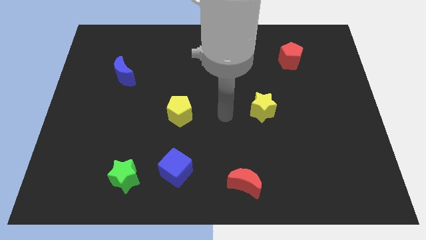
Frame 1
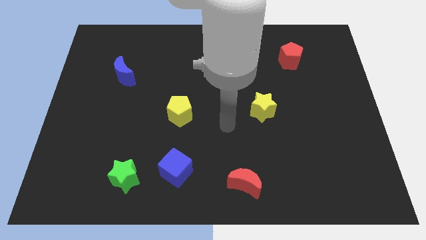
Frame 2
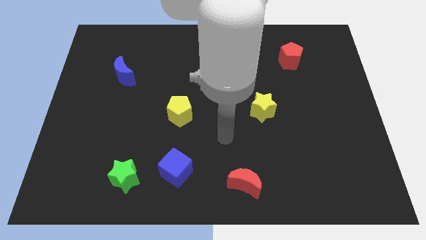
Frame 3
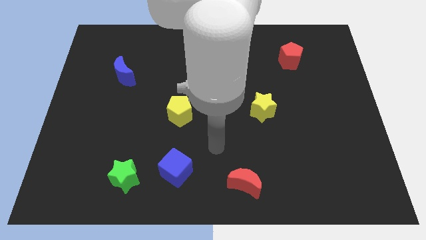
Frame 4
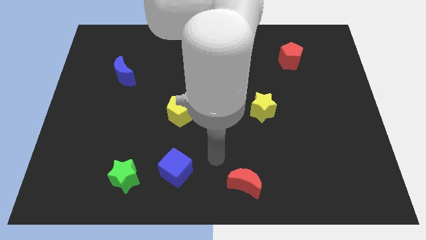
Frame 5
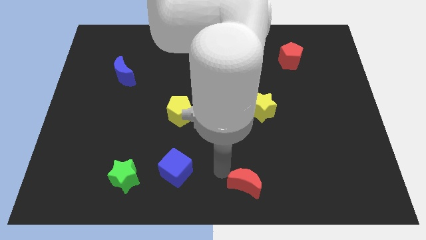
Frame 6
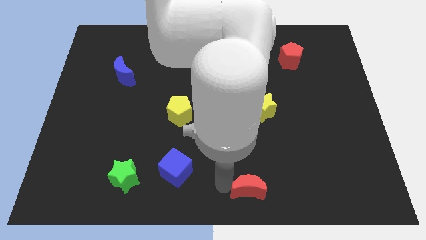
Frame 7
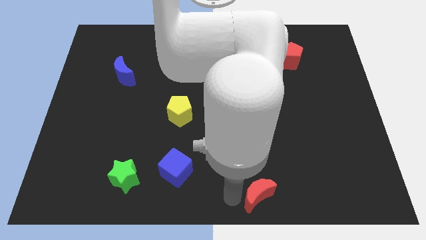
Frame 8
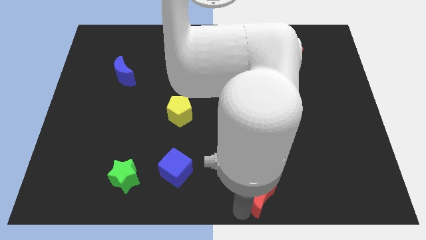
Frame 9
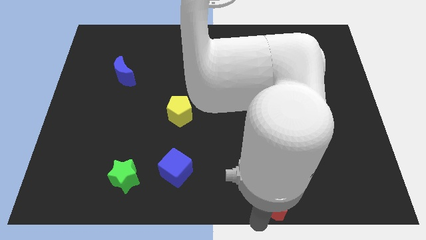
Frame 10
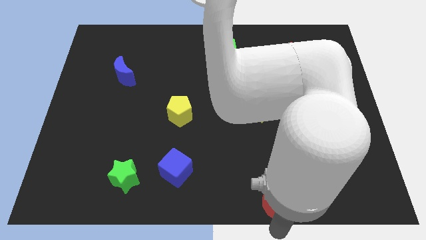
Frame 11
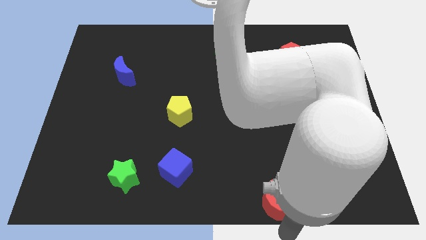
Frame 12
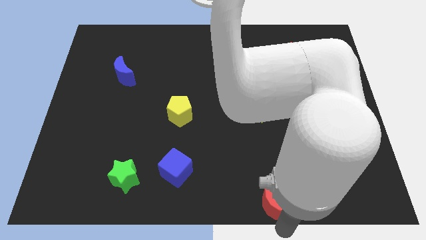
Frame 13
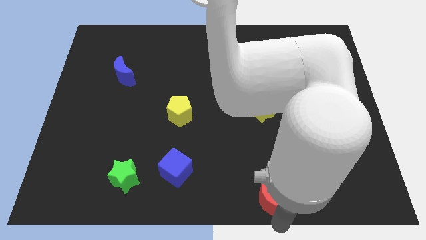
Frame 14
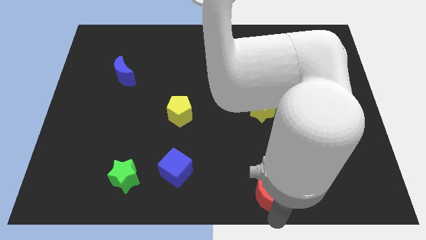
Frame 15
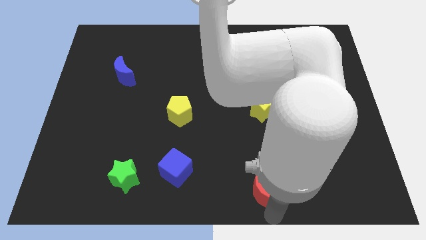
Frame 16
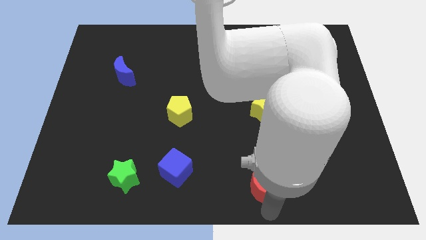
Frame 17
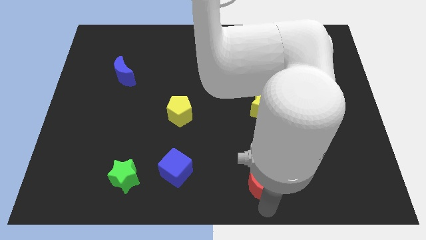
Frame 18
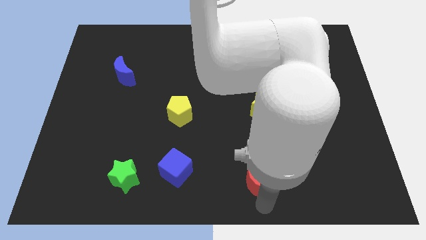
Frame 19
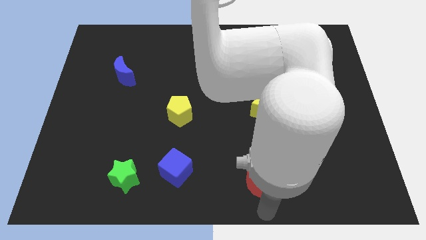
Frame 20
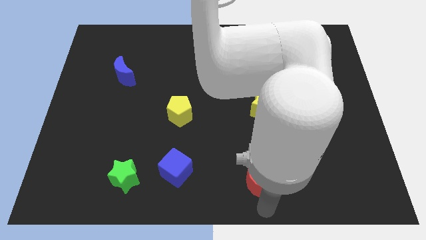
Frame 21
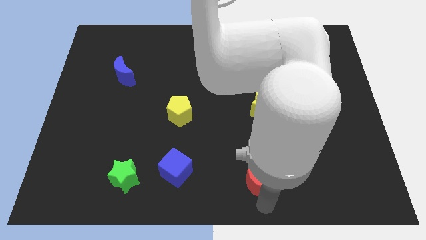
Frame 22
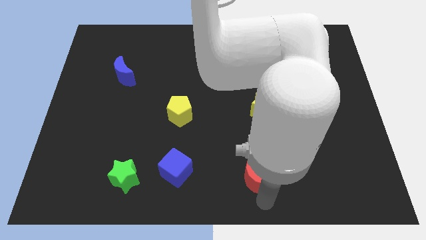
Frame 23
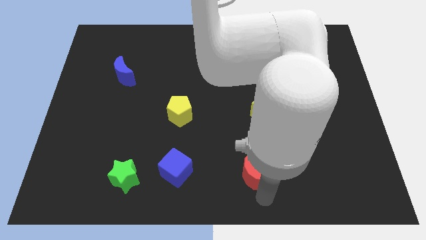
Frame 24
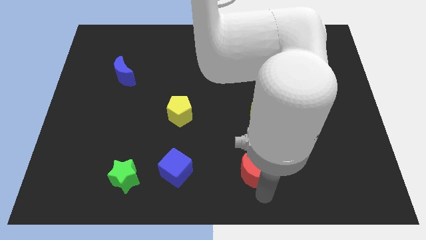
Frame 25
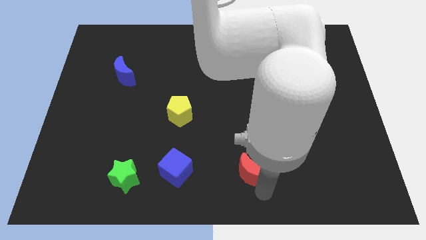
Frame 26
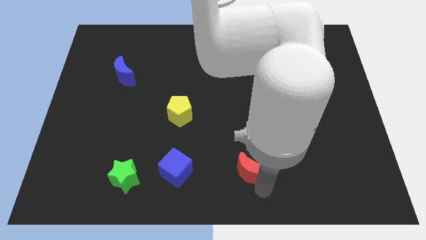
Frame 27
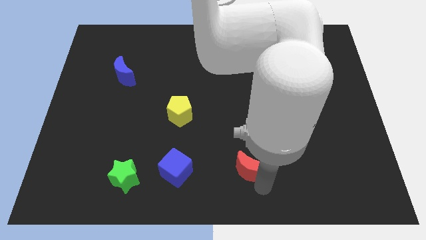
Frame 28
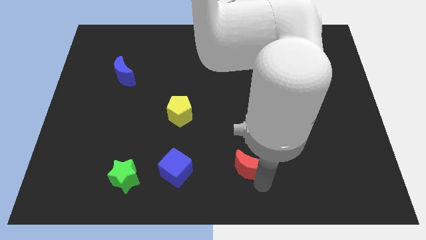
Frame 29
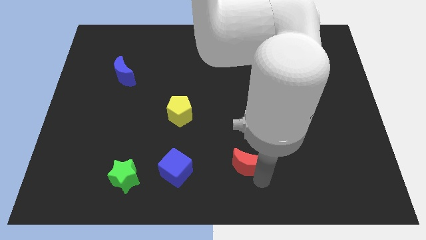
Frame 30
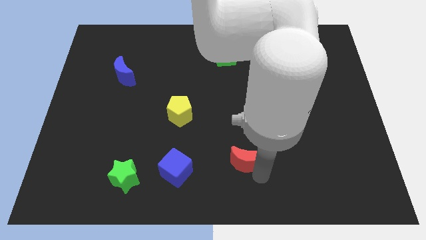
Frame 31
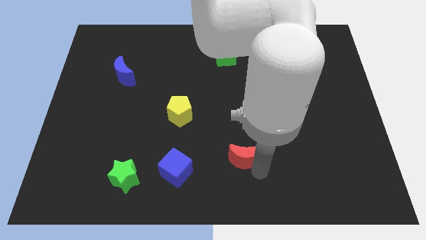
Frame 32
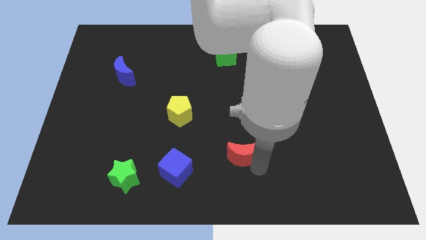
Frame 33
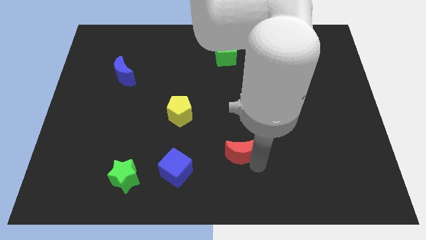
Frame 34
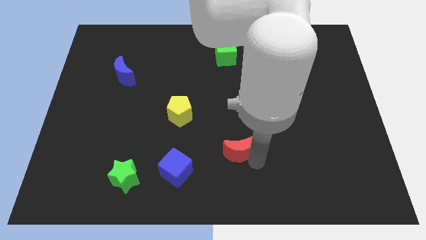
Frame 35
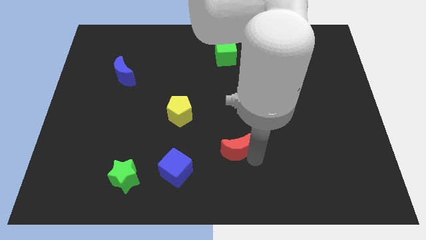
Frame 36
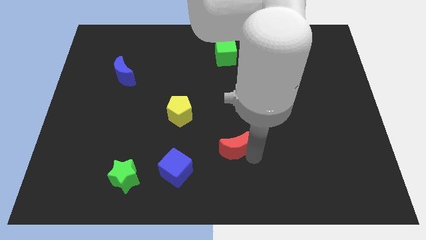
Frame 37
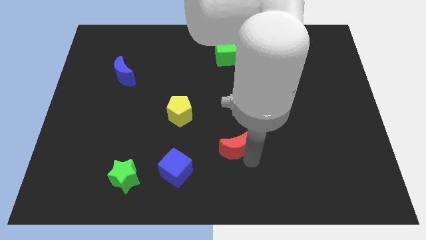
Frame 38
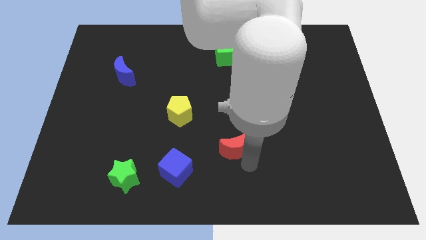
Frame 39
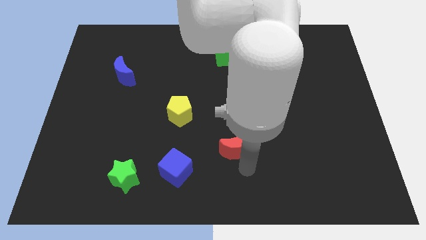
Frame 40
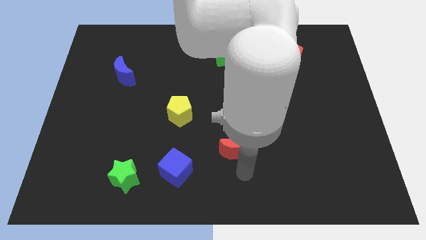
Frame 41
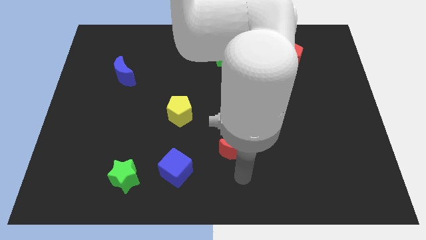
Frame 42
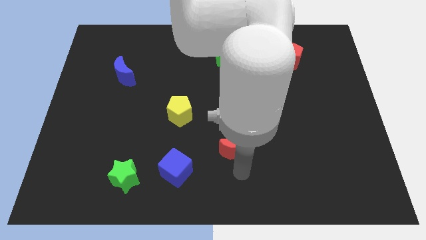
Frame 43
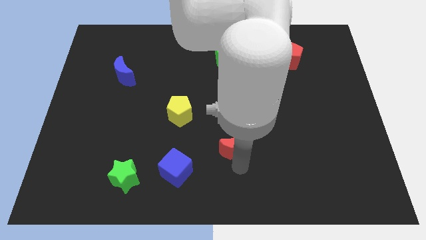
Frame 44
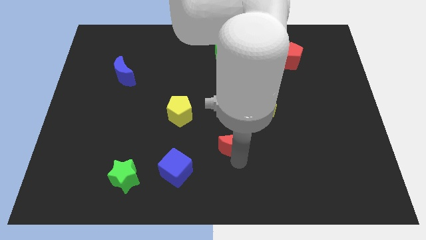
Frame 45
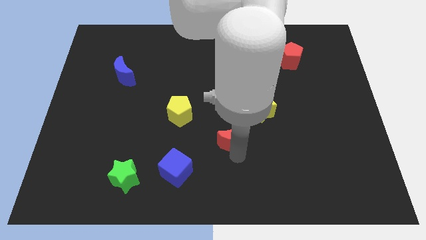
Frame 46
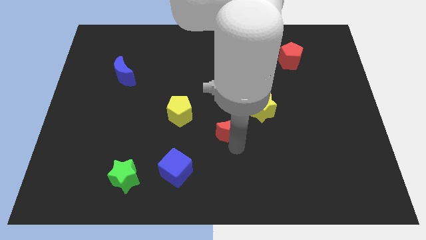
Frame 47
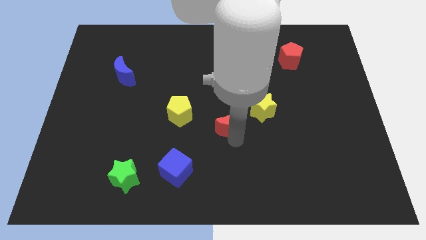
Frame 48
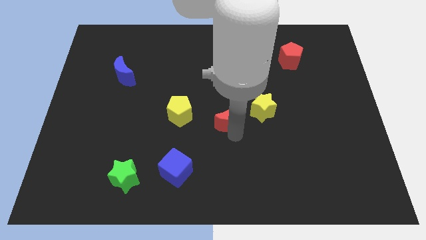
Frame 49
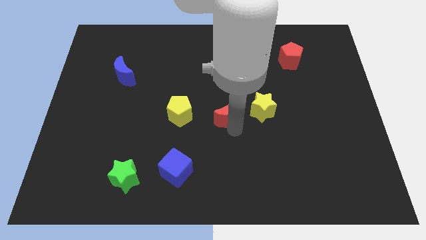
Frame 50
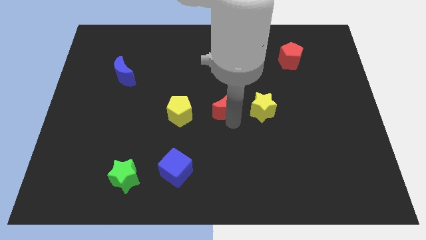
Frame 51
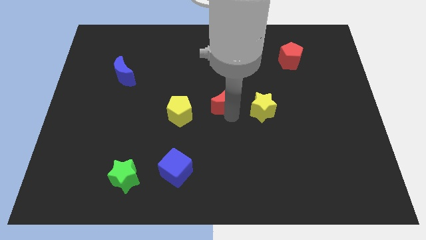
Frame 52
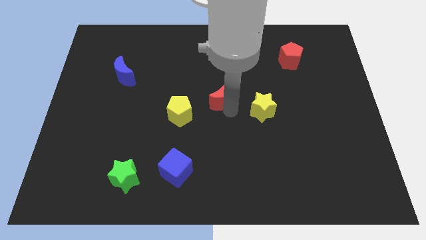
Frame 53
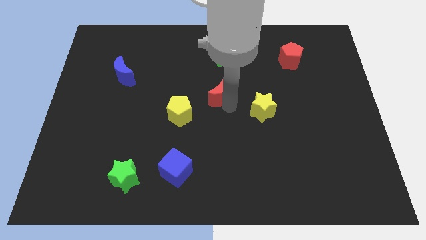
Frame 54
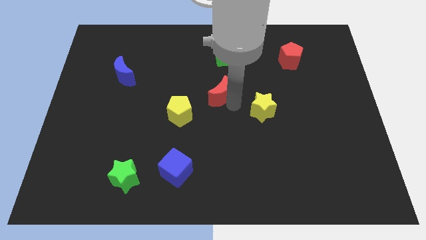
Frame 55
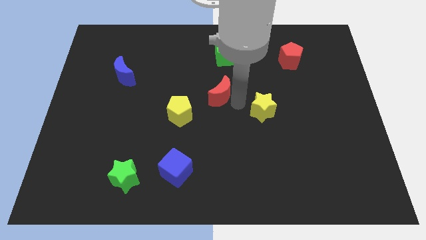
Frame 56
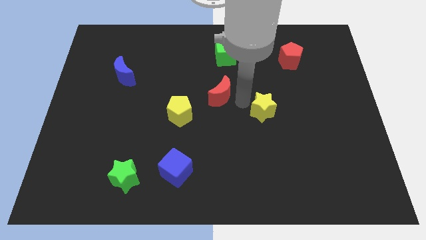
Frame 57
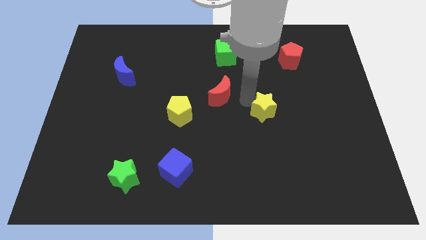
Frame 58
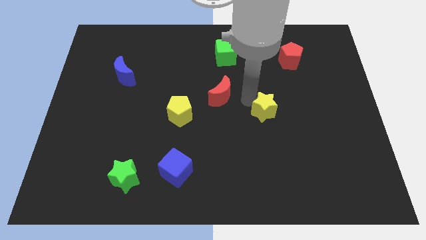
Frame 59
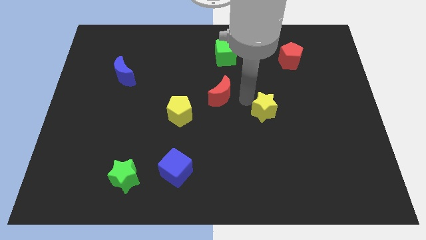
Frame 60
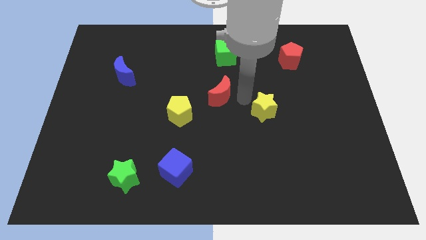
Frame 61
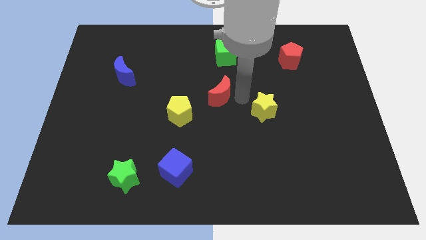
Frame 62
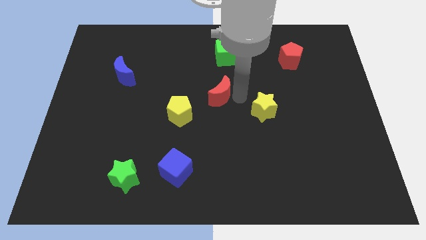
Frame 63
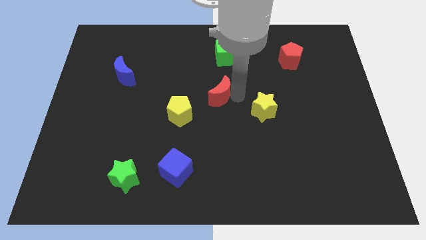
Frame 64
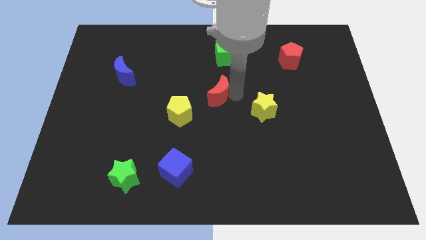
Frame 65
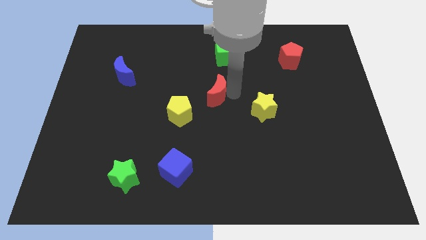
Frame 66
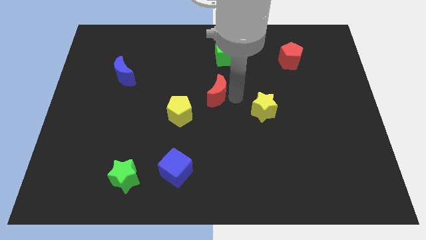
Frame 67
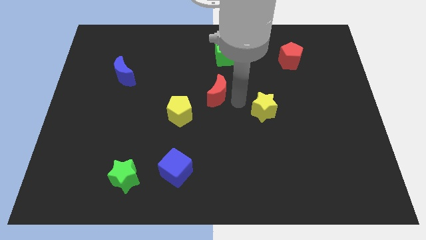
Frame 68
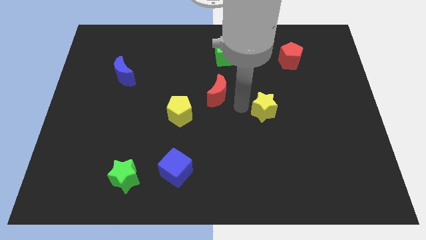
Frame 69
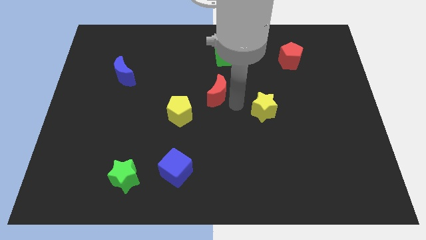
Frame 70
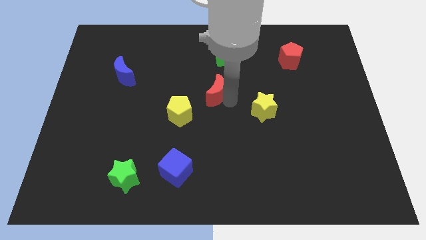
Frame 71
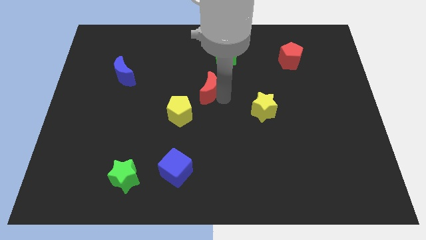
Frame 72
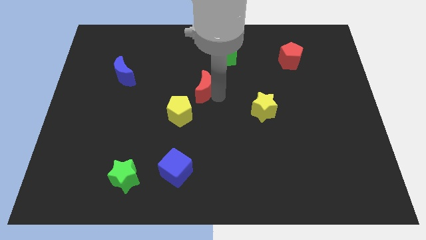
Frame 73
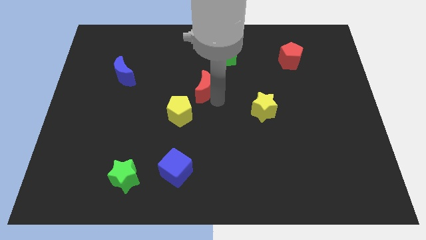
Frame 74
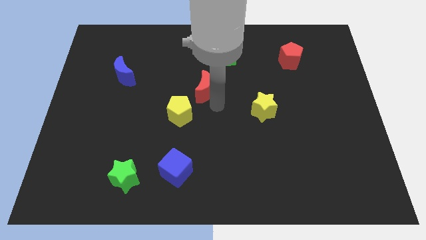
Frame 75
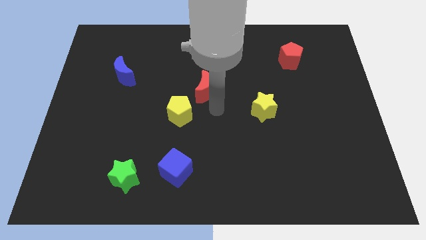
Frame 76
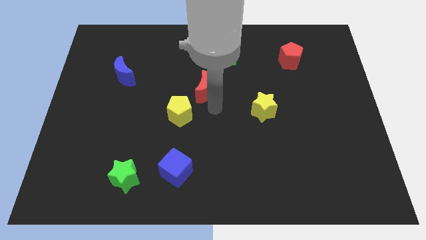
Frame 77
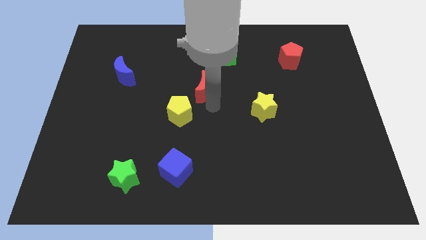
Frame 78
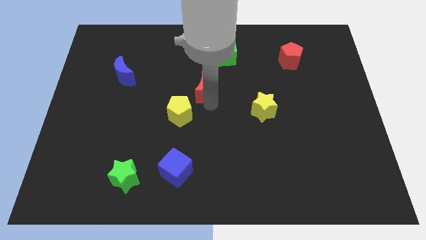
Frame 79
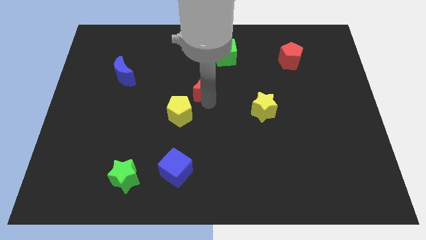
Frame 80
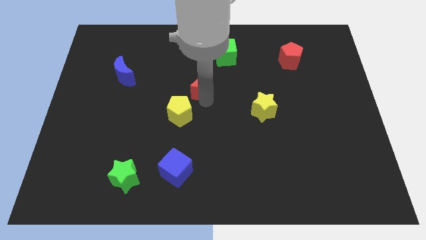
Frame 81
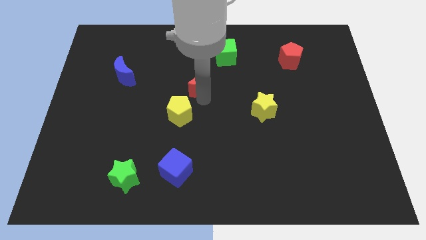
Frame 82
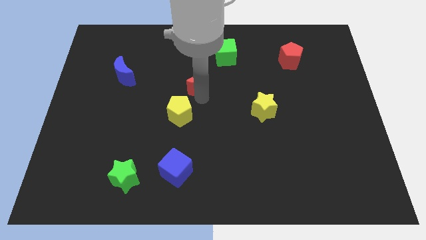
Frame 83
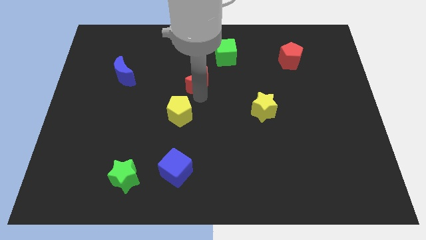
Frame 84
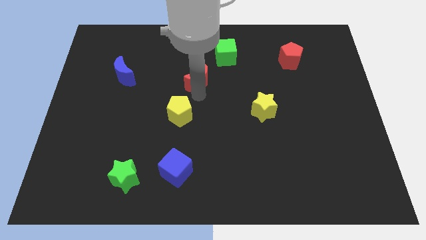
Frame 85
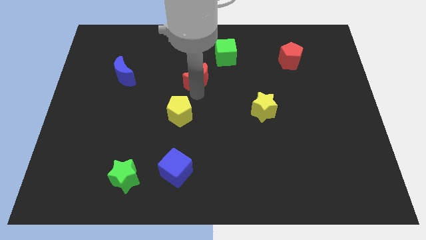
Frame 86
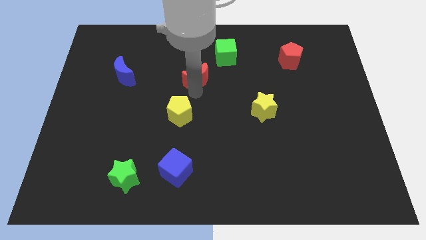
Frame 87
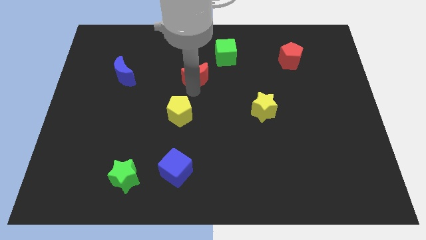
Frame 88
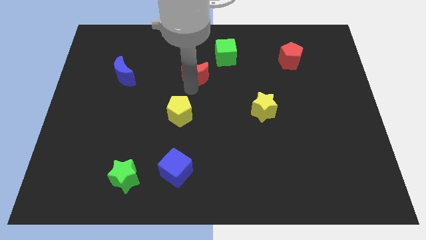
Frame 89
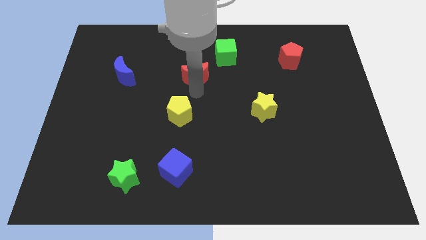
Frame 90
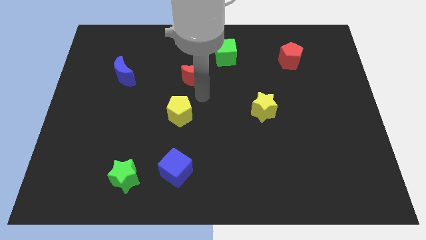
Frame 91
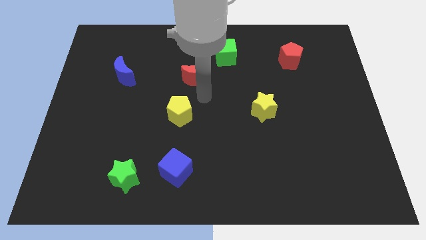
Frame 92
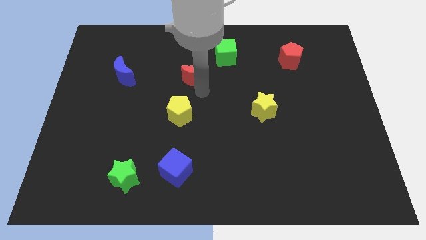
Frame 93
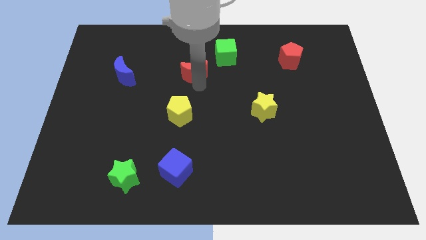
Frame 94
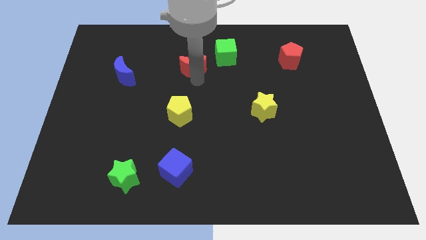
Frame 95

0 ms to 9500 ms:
push the red moon to the left side of the green cube
